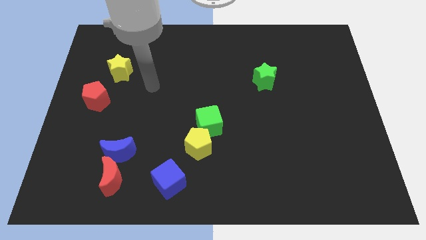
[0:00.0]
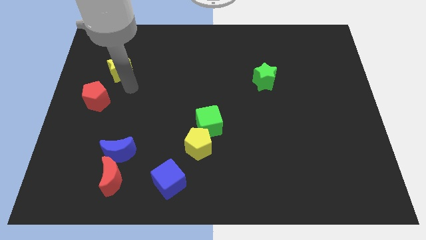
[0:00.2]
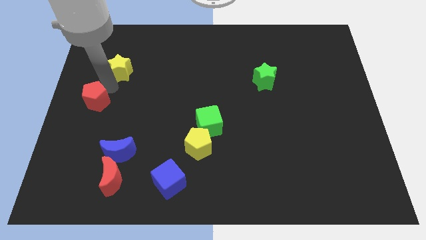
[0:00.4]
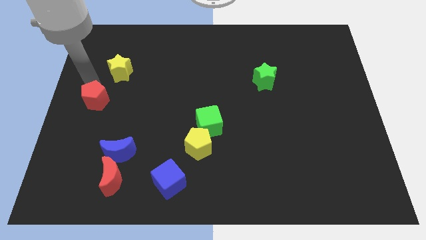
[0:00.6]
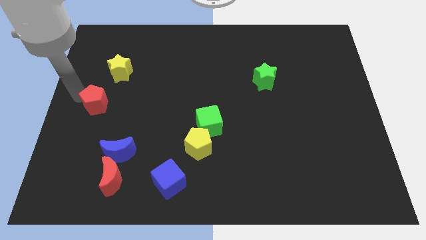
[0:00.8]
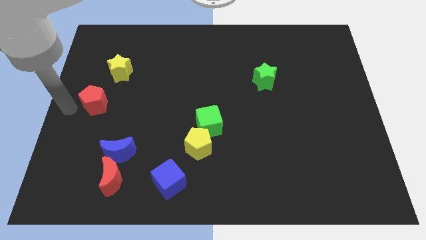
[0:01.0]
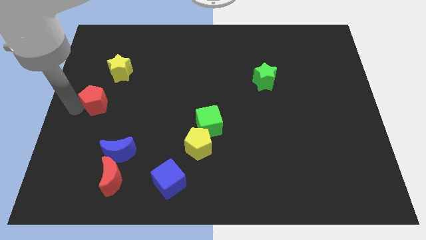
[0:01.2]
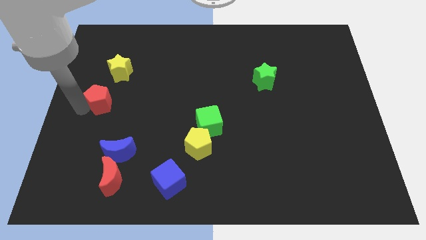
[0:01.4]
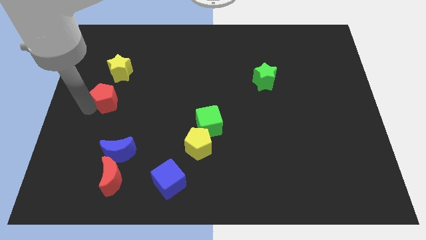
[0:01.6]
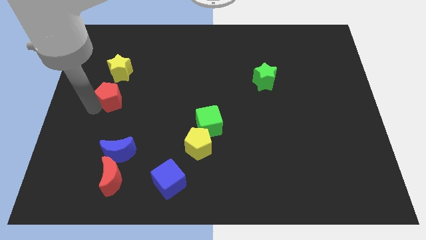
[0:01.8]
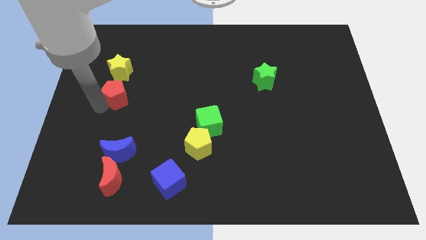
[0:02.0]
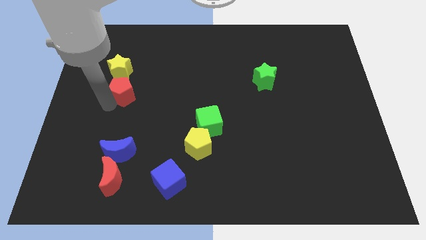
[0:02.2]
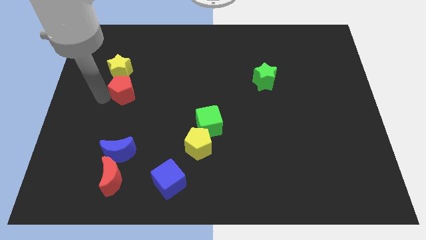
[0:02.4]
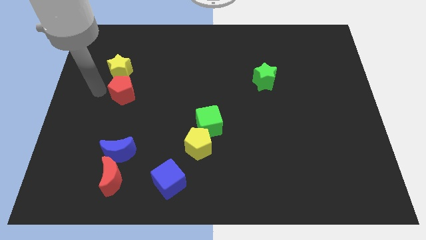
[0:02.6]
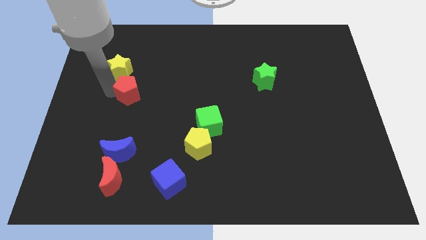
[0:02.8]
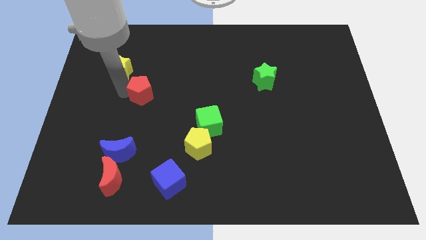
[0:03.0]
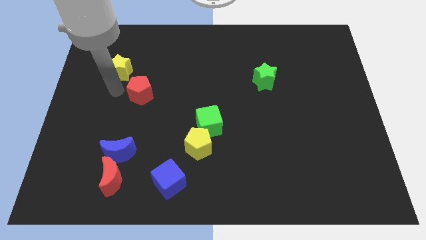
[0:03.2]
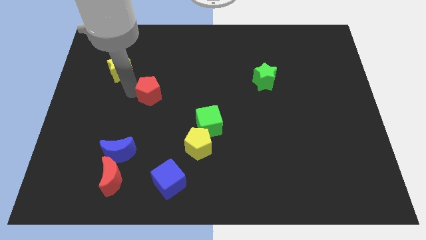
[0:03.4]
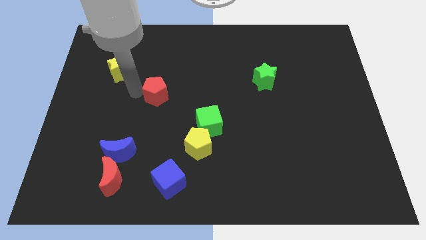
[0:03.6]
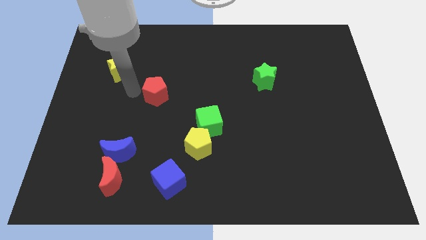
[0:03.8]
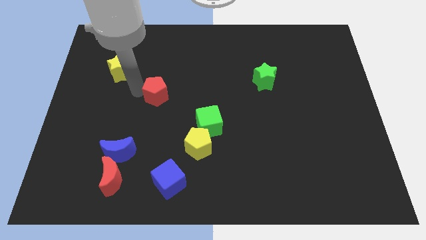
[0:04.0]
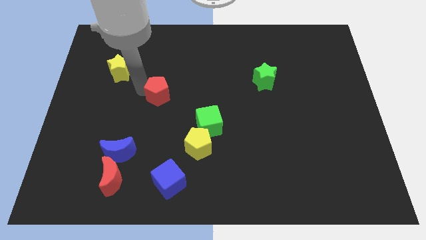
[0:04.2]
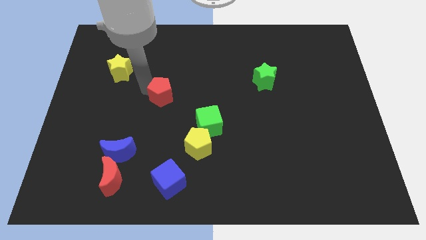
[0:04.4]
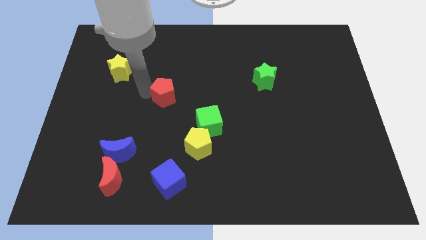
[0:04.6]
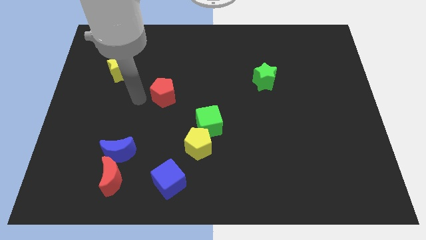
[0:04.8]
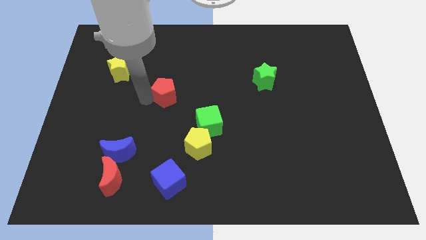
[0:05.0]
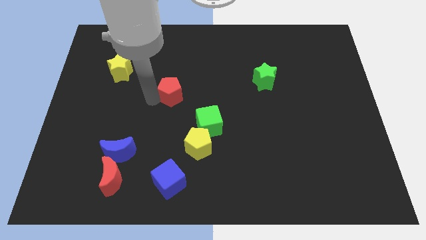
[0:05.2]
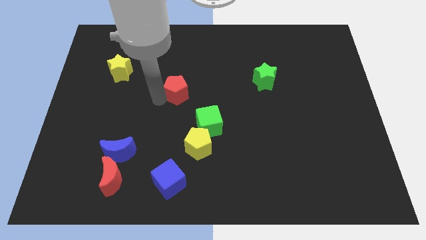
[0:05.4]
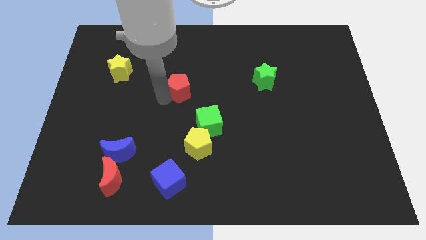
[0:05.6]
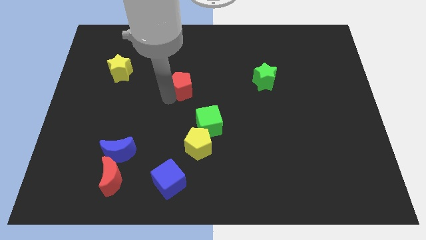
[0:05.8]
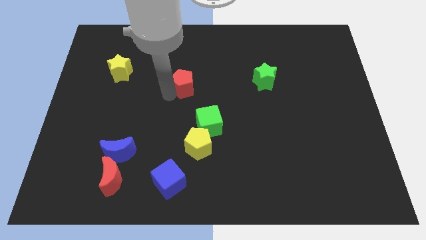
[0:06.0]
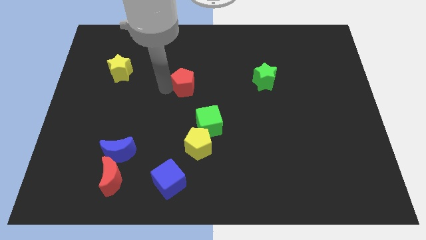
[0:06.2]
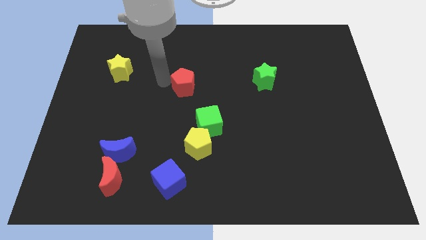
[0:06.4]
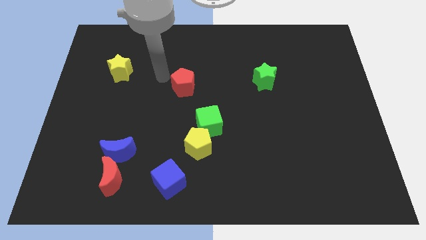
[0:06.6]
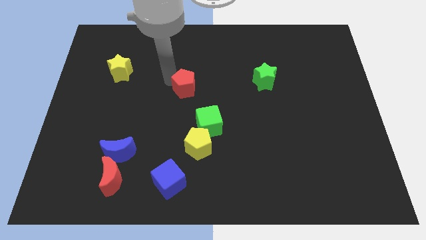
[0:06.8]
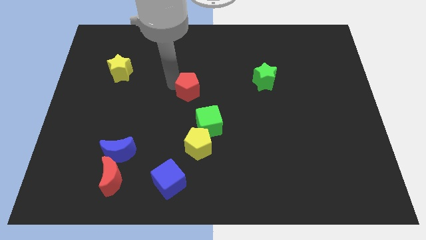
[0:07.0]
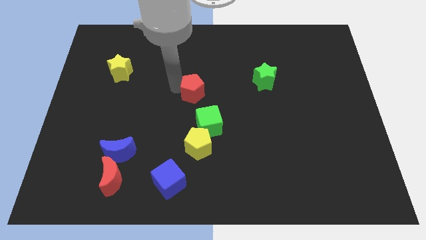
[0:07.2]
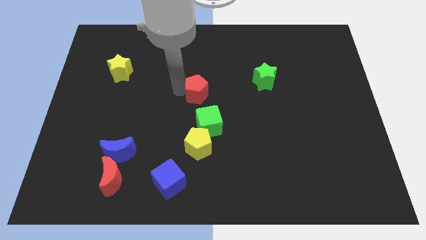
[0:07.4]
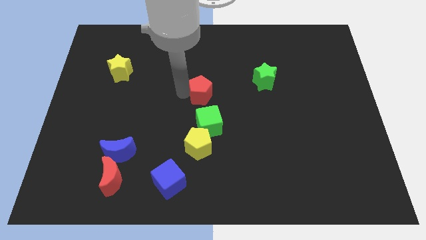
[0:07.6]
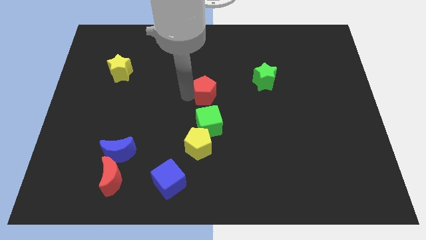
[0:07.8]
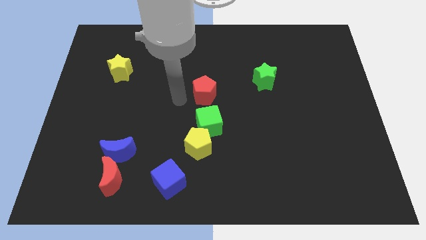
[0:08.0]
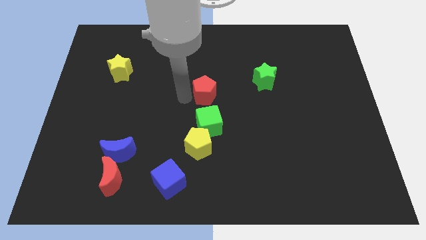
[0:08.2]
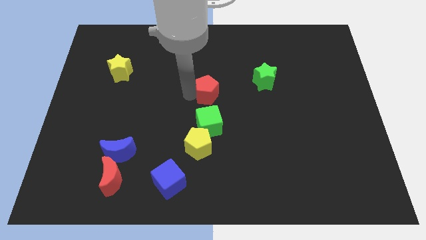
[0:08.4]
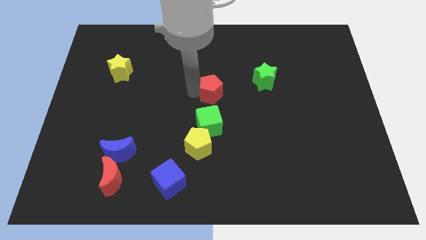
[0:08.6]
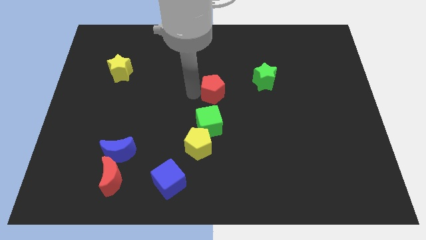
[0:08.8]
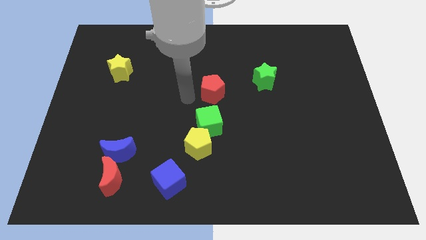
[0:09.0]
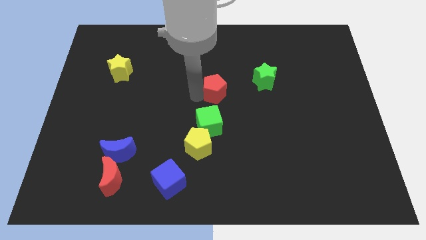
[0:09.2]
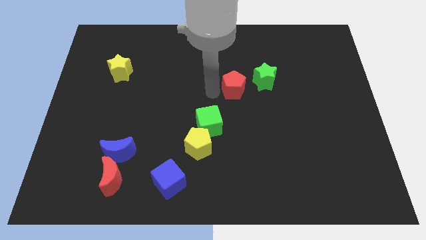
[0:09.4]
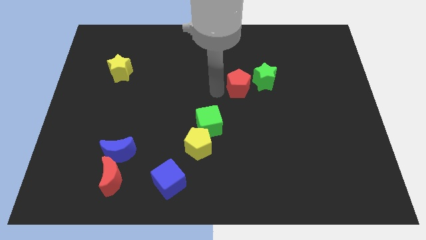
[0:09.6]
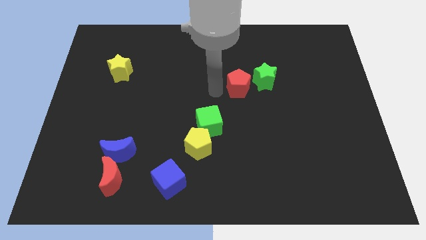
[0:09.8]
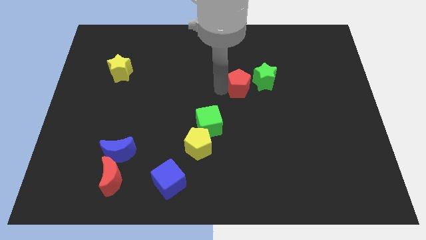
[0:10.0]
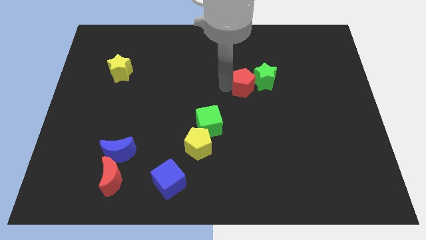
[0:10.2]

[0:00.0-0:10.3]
slide the red pentagon next to the green star

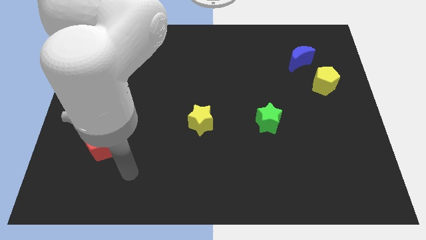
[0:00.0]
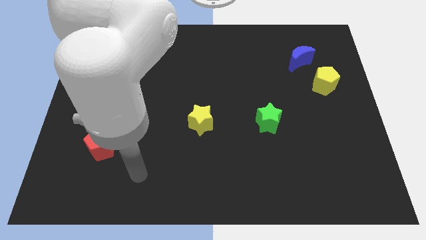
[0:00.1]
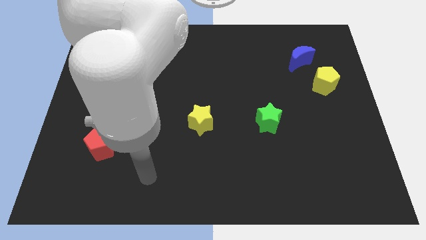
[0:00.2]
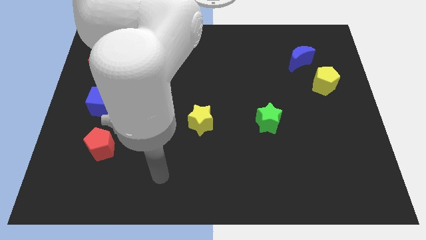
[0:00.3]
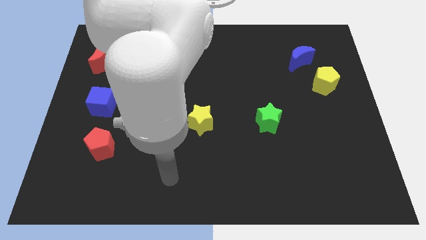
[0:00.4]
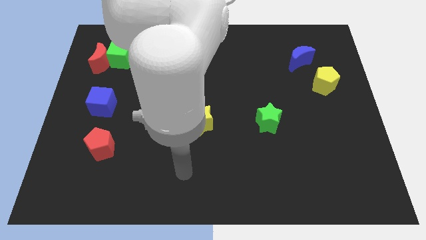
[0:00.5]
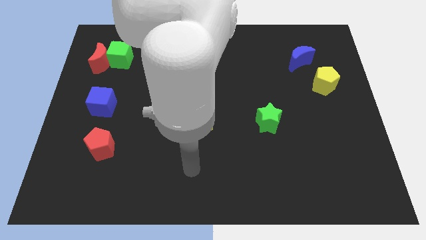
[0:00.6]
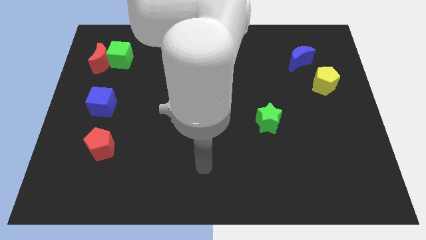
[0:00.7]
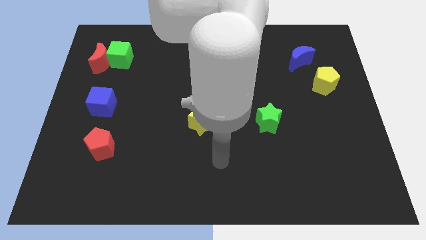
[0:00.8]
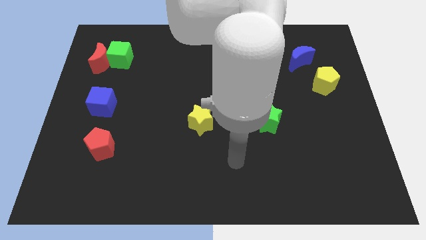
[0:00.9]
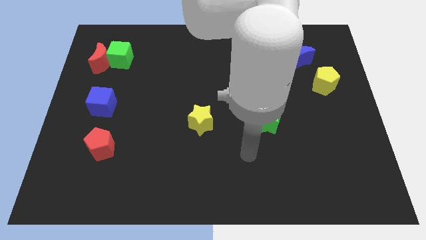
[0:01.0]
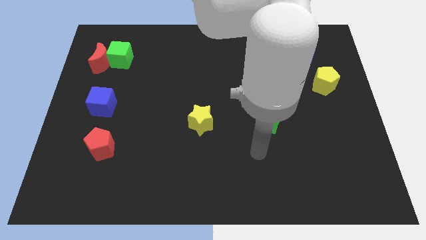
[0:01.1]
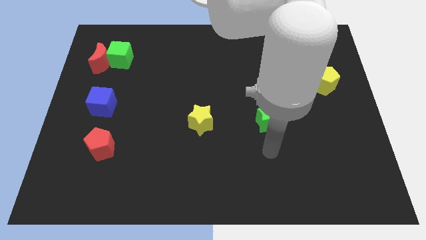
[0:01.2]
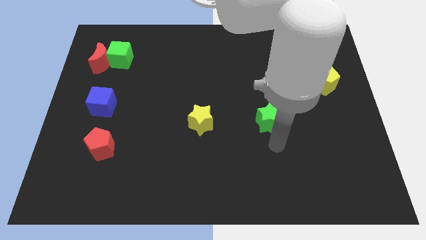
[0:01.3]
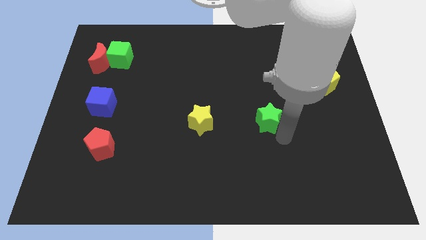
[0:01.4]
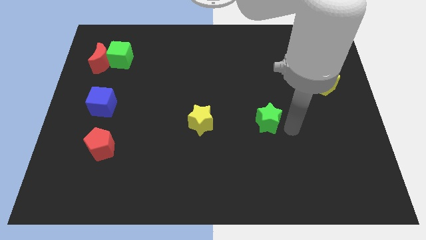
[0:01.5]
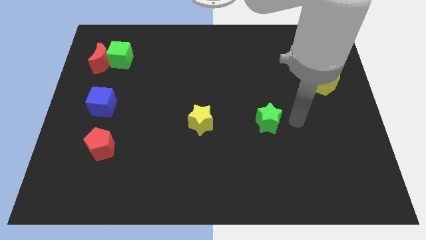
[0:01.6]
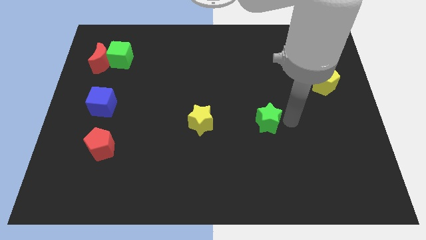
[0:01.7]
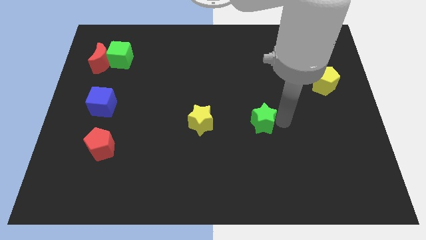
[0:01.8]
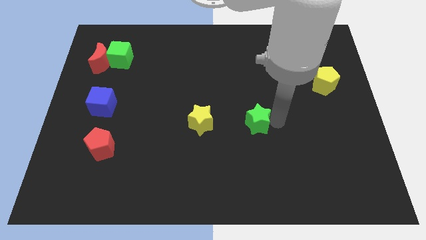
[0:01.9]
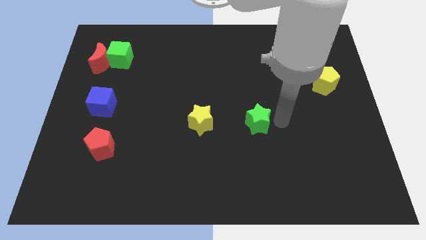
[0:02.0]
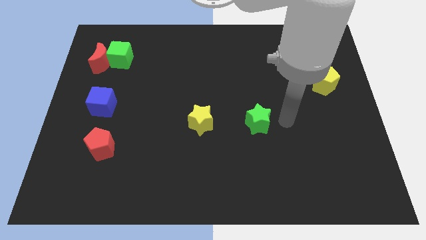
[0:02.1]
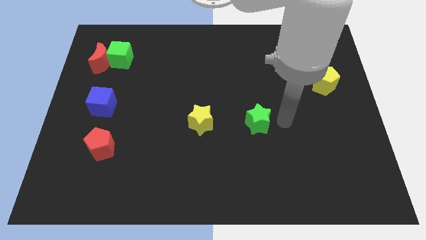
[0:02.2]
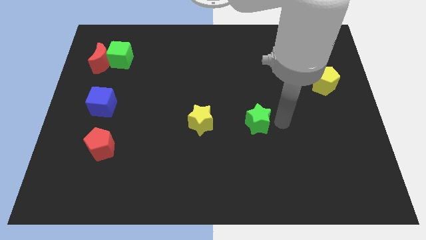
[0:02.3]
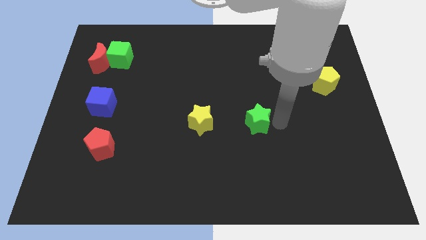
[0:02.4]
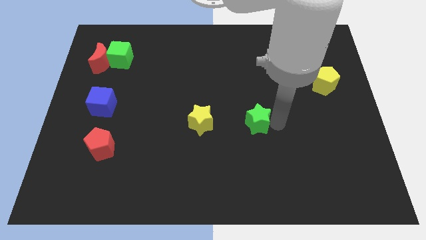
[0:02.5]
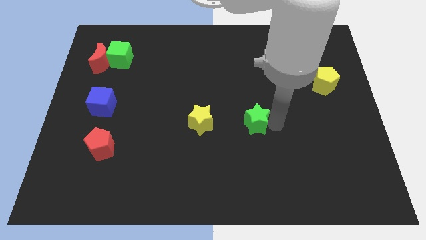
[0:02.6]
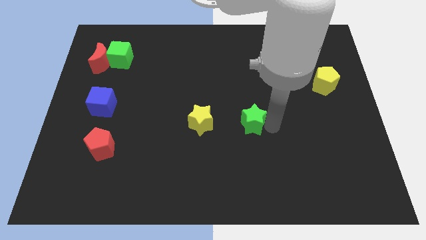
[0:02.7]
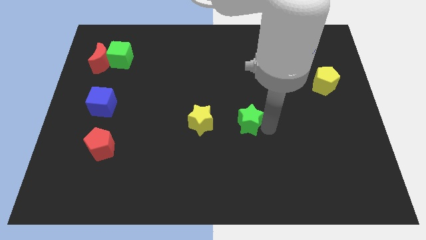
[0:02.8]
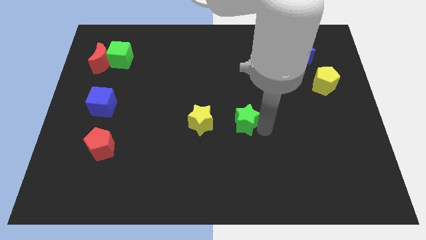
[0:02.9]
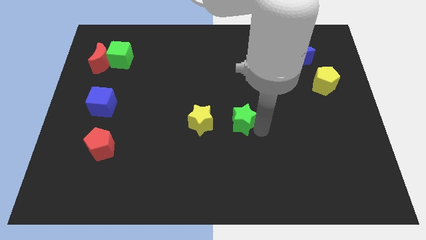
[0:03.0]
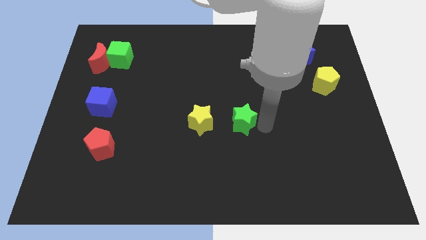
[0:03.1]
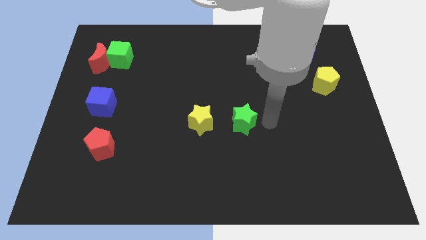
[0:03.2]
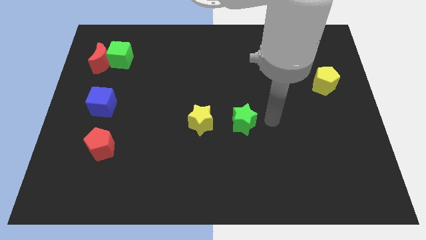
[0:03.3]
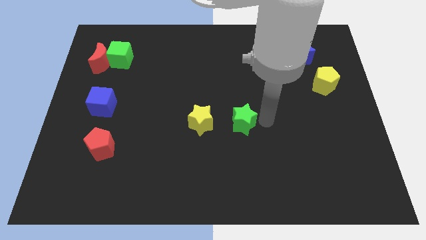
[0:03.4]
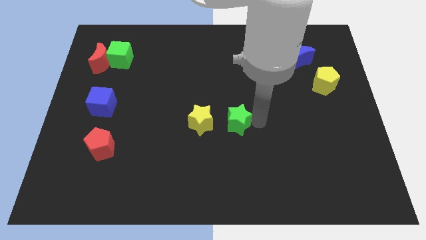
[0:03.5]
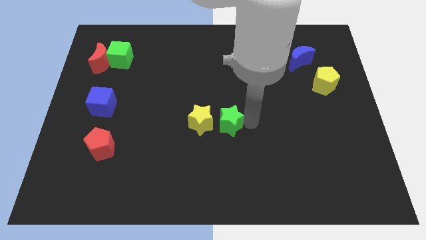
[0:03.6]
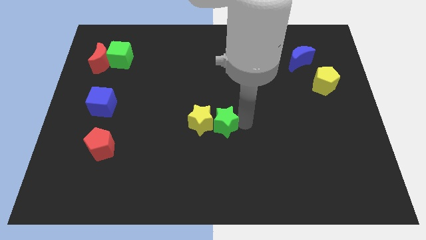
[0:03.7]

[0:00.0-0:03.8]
move the green star towards the yellow star
